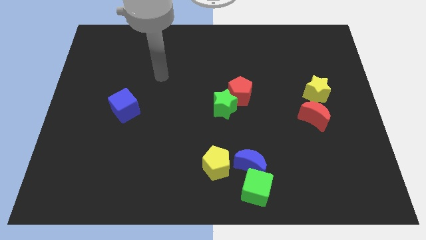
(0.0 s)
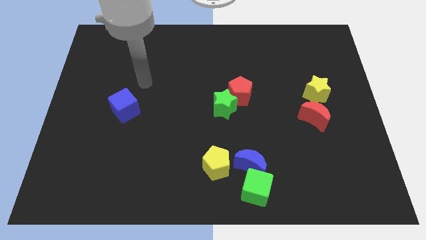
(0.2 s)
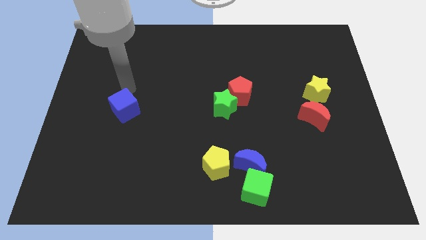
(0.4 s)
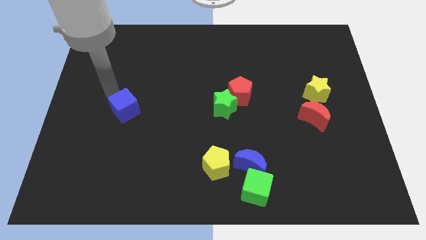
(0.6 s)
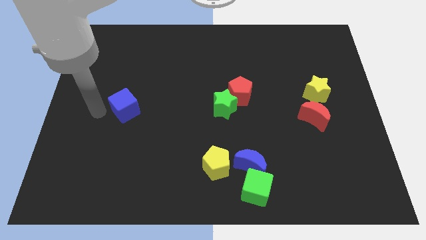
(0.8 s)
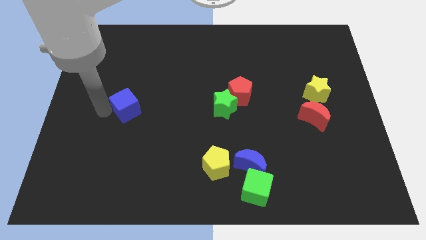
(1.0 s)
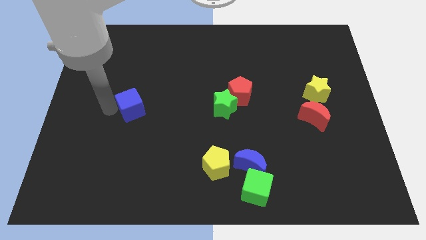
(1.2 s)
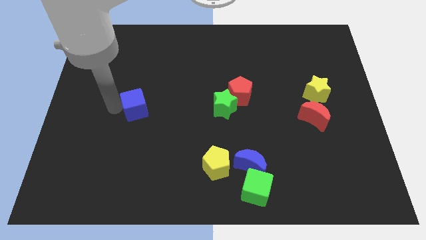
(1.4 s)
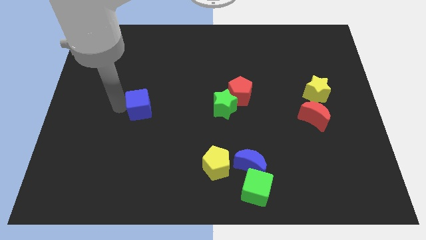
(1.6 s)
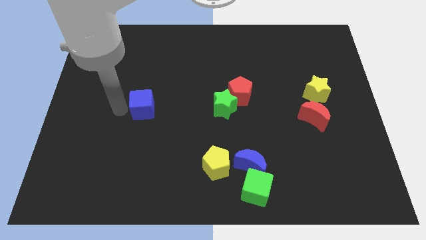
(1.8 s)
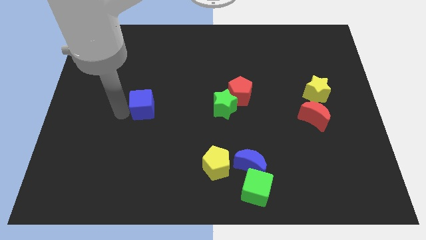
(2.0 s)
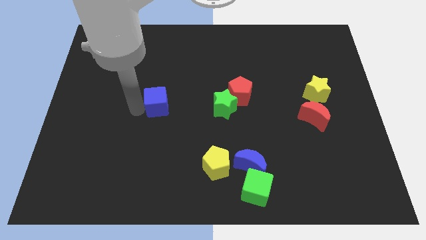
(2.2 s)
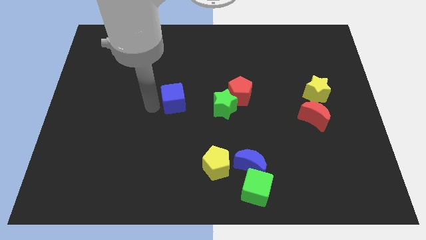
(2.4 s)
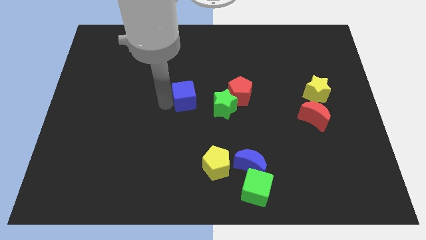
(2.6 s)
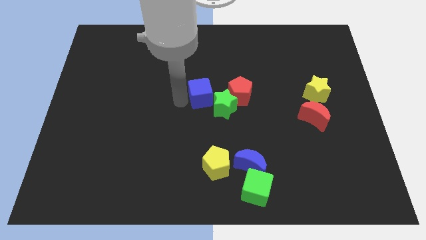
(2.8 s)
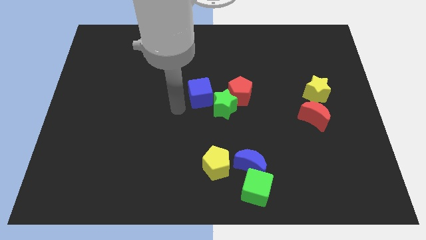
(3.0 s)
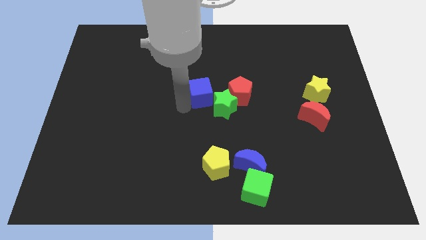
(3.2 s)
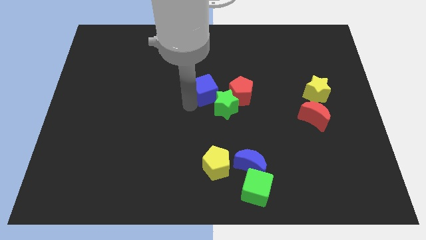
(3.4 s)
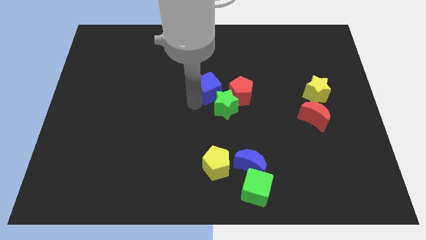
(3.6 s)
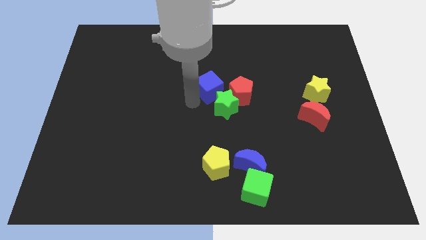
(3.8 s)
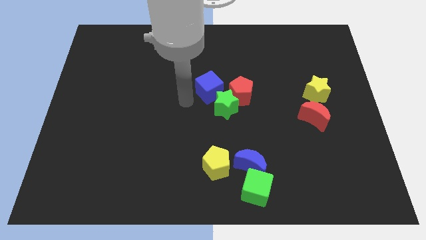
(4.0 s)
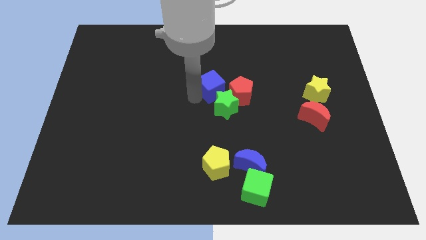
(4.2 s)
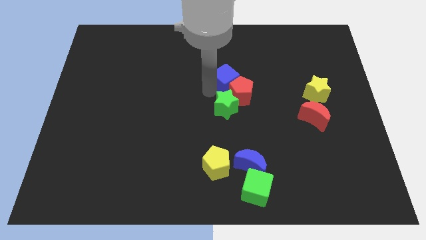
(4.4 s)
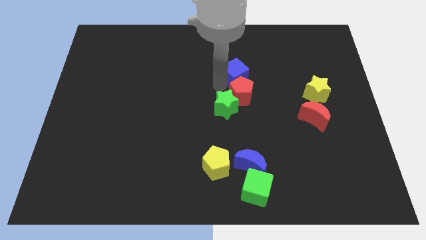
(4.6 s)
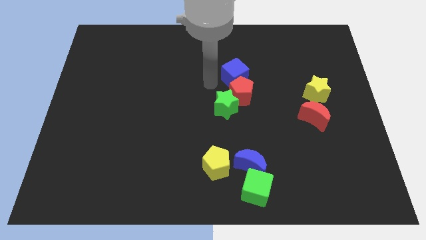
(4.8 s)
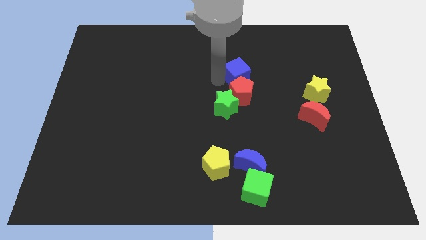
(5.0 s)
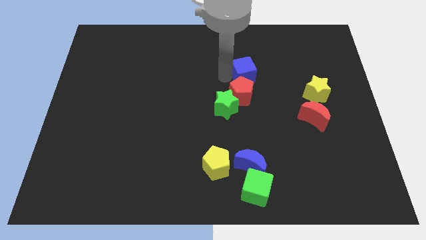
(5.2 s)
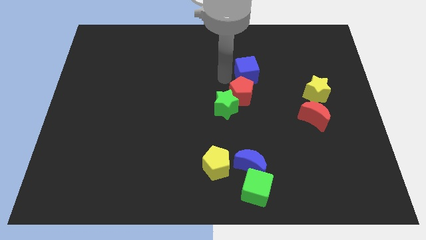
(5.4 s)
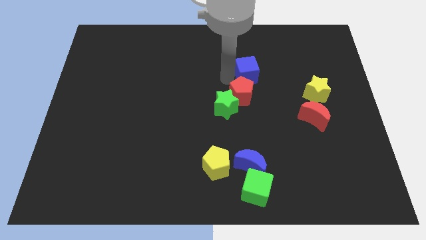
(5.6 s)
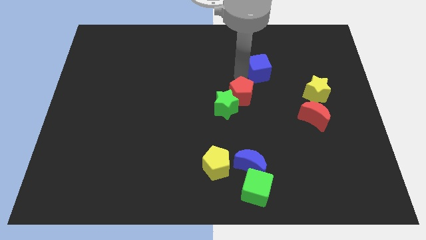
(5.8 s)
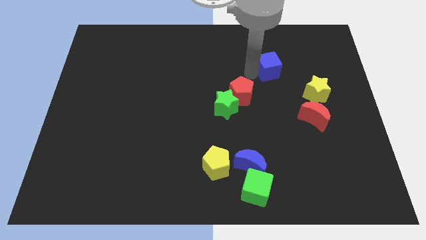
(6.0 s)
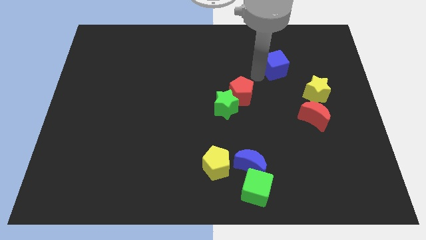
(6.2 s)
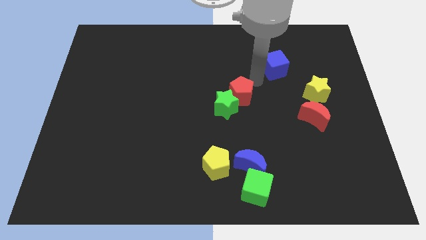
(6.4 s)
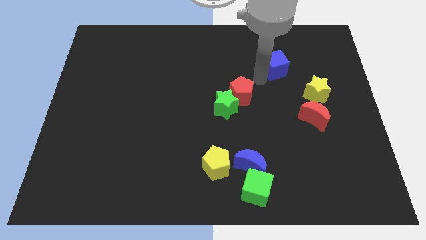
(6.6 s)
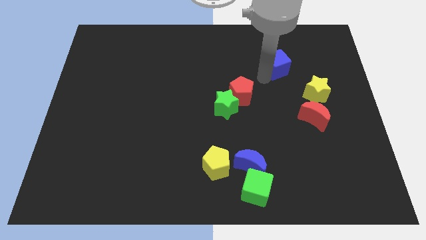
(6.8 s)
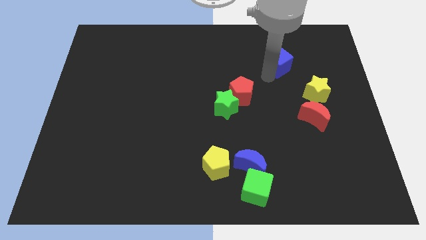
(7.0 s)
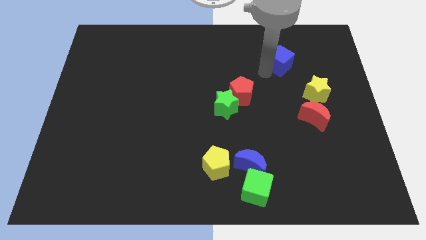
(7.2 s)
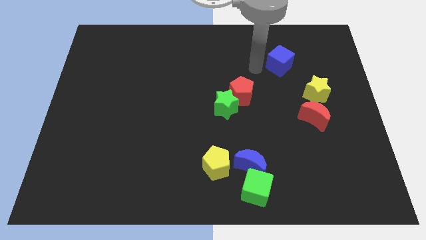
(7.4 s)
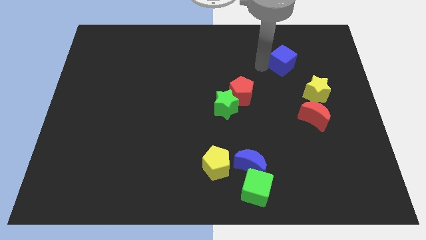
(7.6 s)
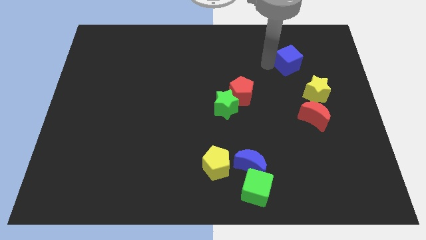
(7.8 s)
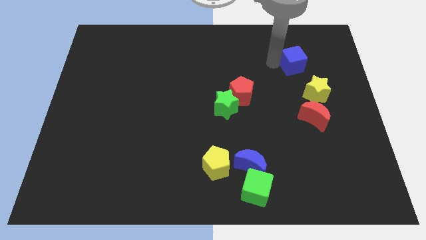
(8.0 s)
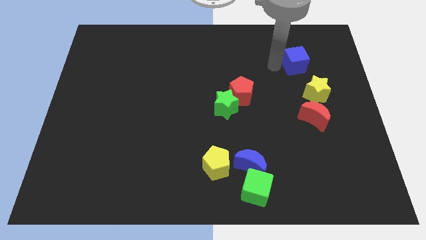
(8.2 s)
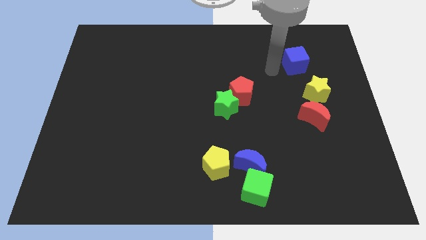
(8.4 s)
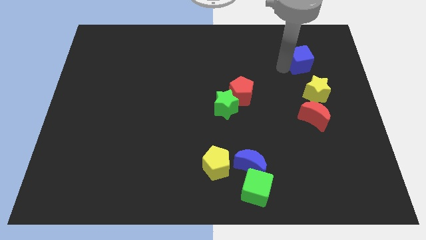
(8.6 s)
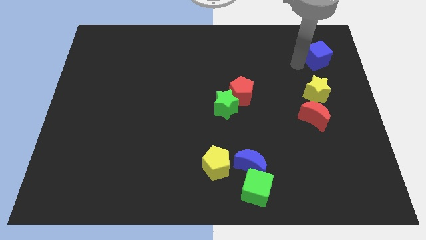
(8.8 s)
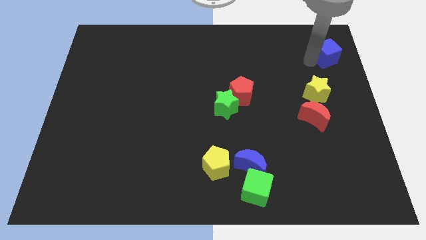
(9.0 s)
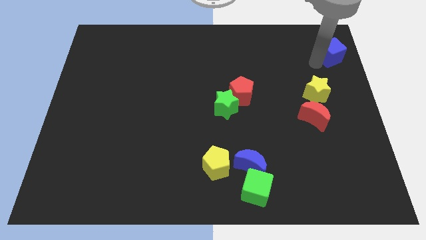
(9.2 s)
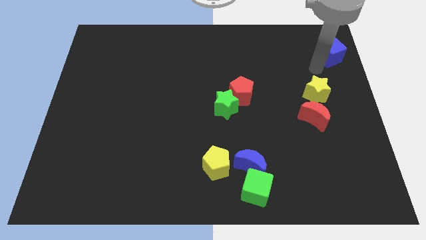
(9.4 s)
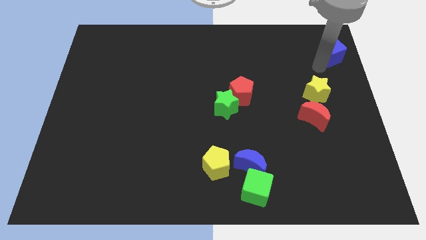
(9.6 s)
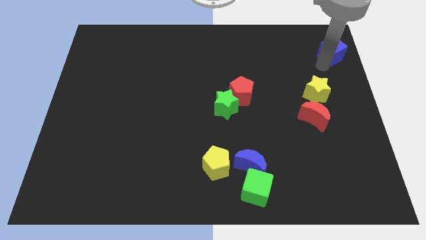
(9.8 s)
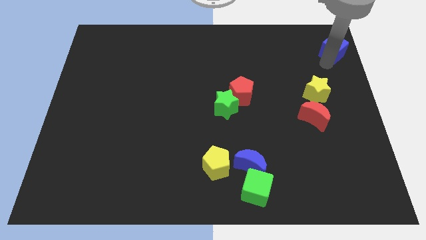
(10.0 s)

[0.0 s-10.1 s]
push the blue cube to the top right of the board
